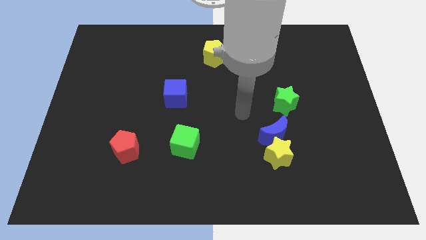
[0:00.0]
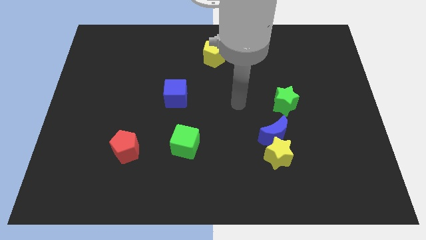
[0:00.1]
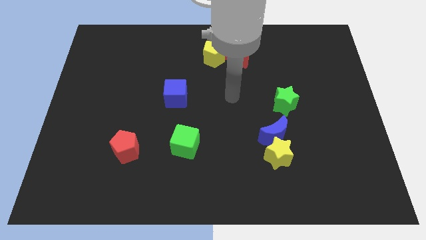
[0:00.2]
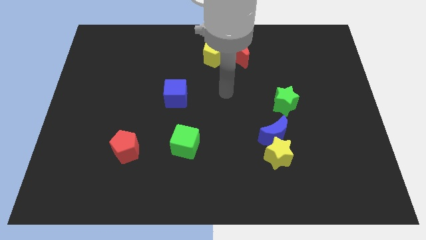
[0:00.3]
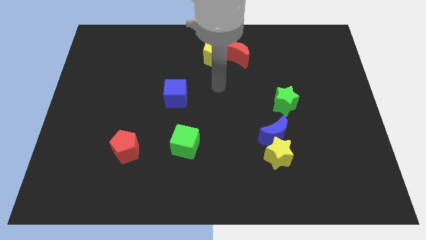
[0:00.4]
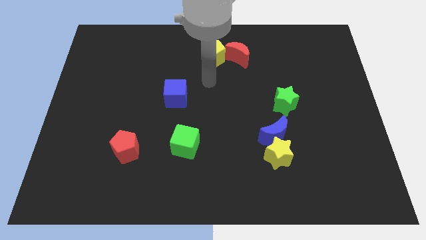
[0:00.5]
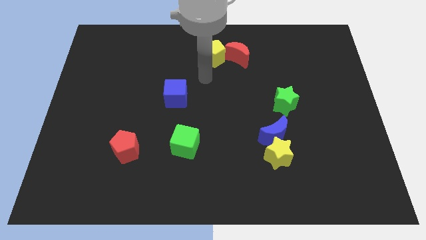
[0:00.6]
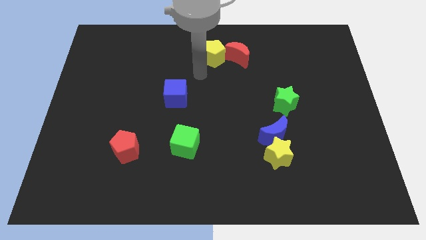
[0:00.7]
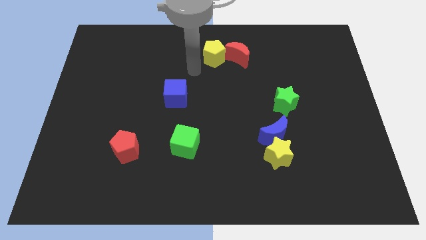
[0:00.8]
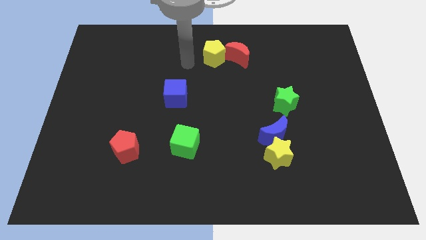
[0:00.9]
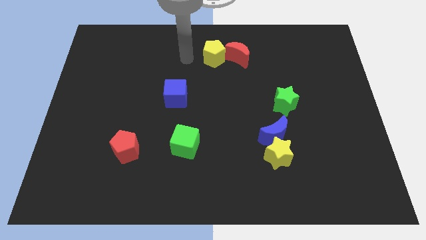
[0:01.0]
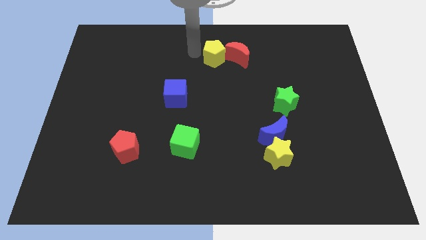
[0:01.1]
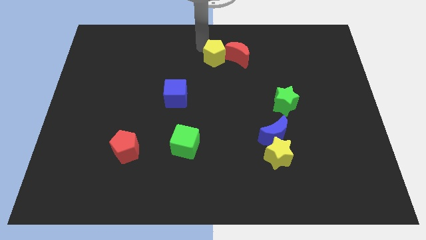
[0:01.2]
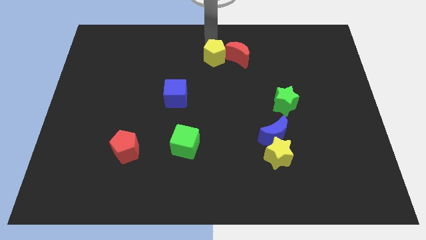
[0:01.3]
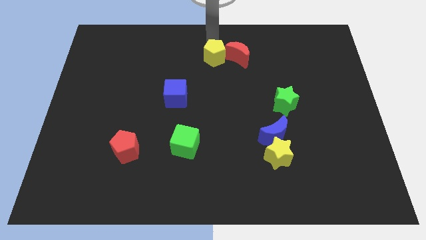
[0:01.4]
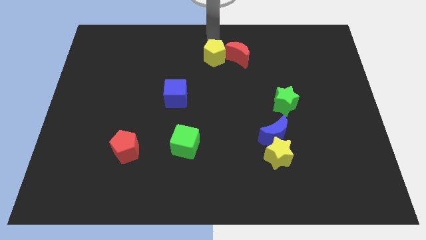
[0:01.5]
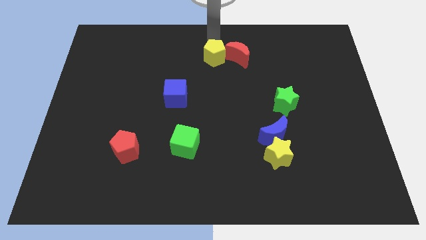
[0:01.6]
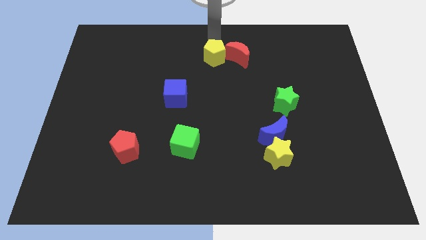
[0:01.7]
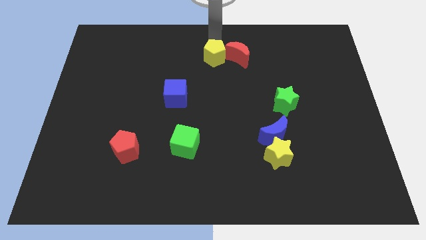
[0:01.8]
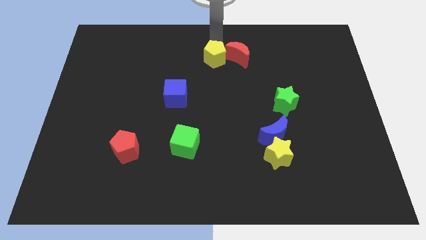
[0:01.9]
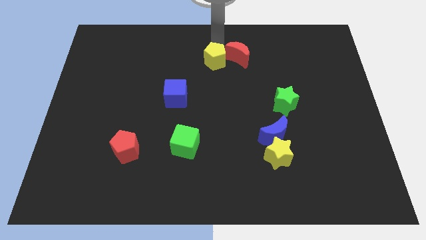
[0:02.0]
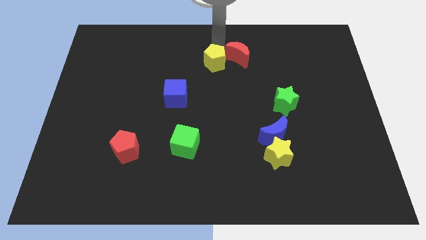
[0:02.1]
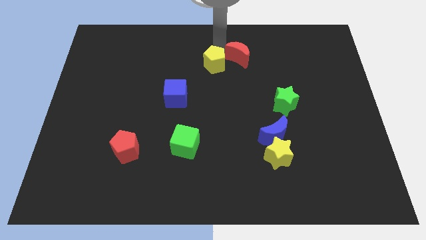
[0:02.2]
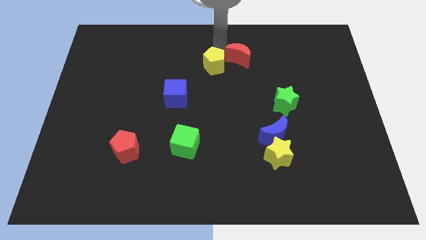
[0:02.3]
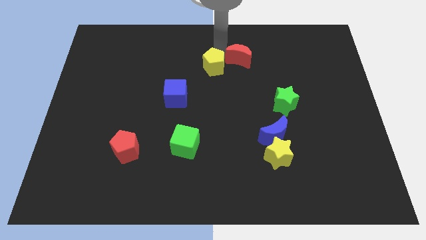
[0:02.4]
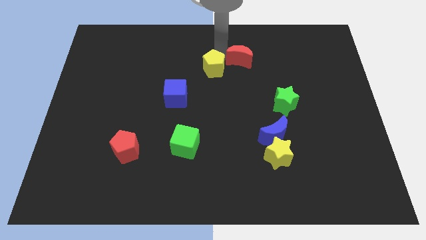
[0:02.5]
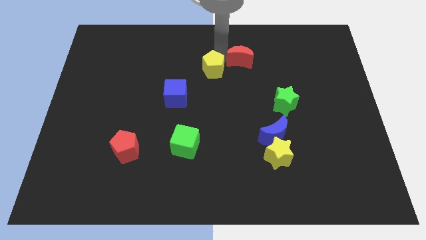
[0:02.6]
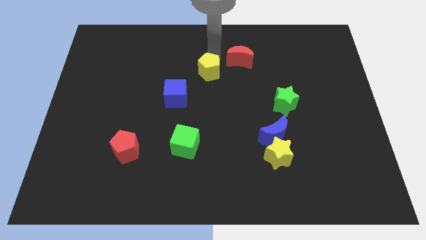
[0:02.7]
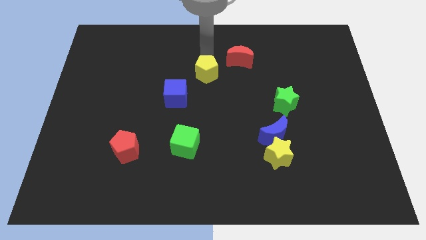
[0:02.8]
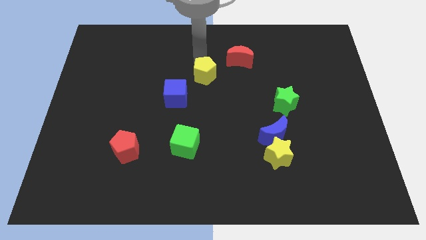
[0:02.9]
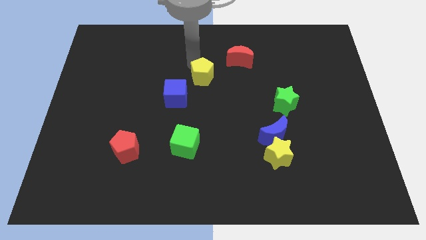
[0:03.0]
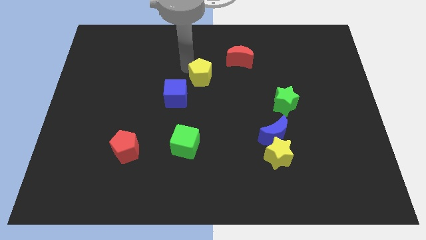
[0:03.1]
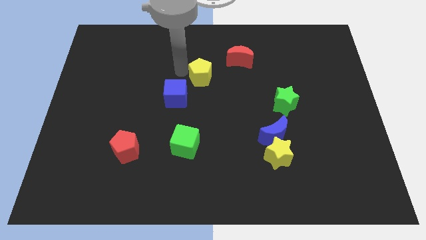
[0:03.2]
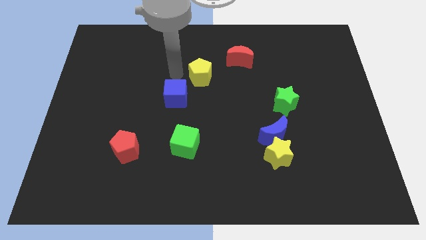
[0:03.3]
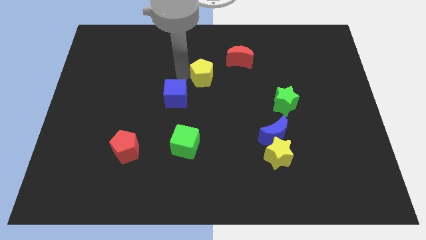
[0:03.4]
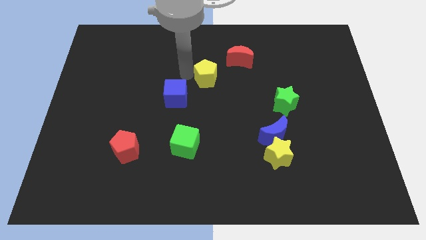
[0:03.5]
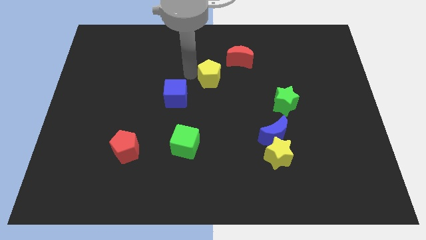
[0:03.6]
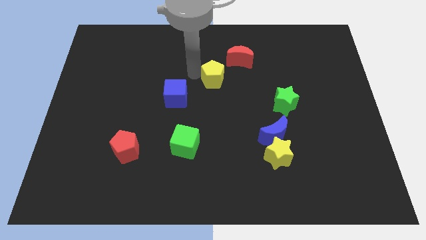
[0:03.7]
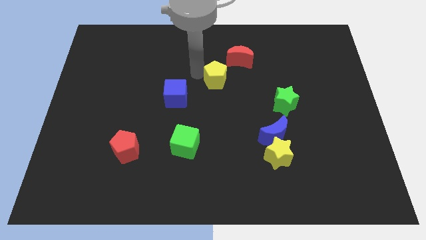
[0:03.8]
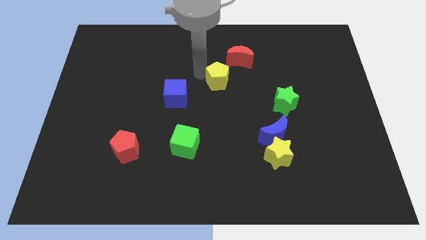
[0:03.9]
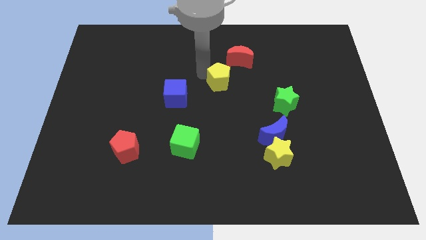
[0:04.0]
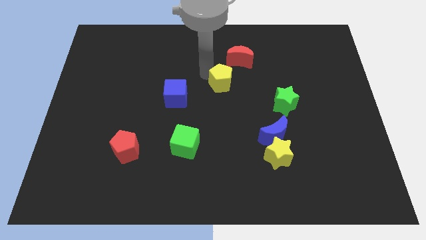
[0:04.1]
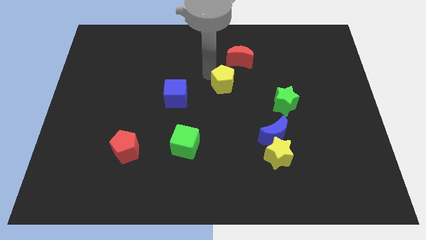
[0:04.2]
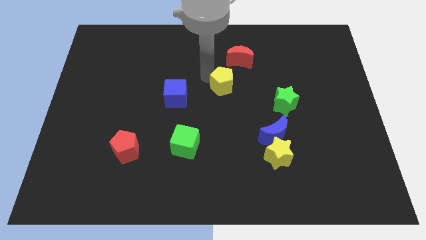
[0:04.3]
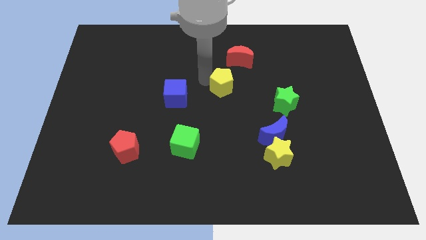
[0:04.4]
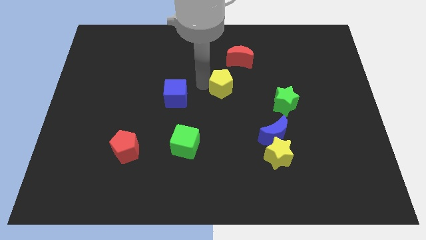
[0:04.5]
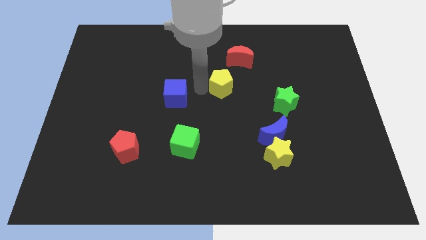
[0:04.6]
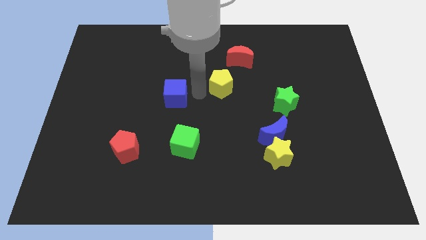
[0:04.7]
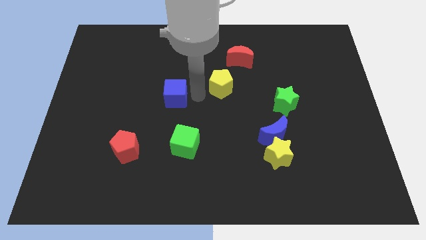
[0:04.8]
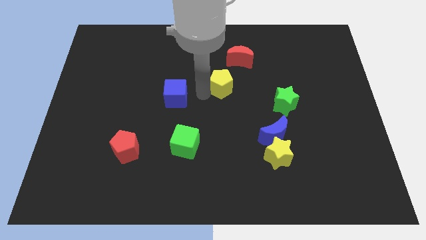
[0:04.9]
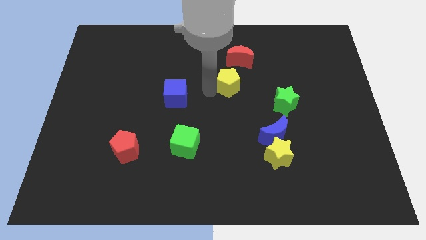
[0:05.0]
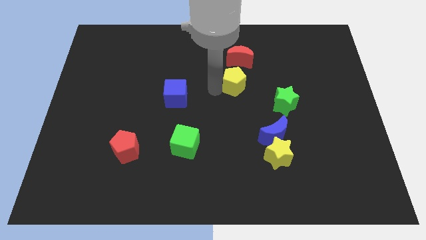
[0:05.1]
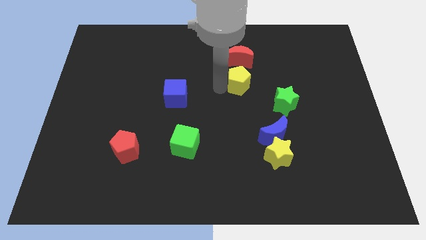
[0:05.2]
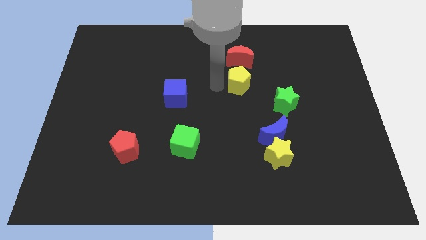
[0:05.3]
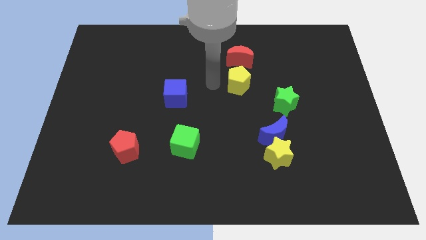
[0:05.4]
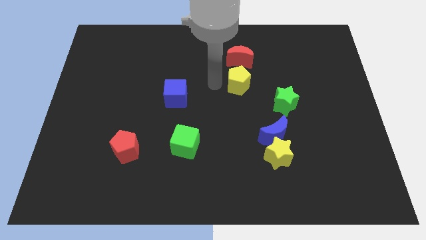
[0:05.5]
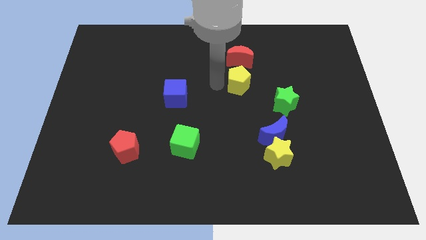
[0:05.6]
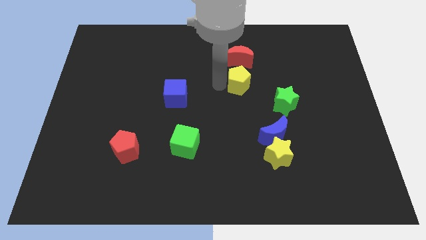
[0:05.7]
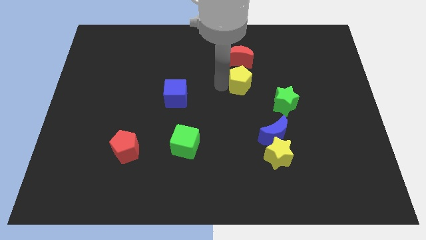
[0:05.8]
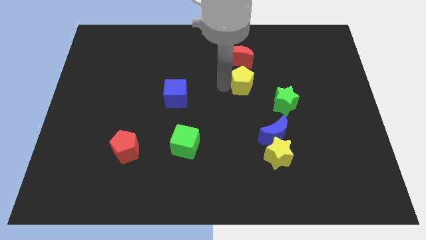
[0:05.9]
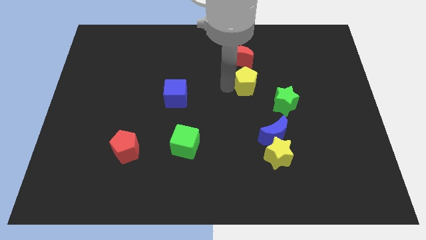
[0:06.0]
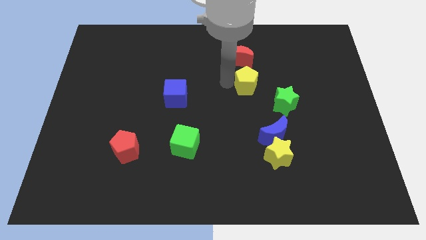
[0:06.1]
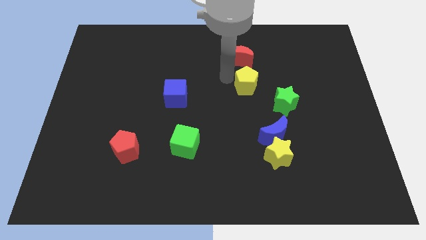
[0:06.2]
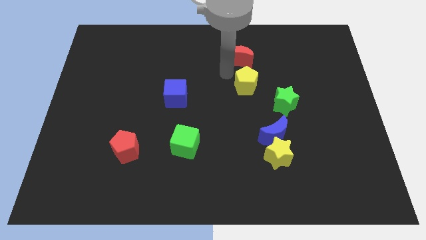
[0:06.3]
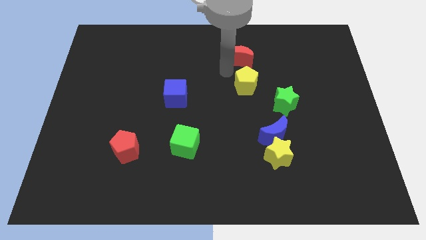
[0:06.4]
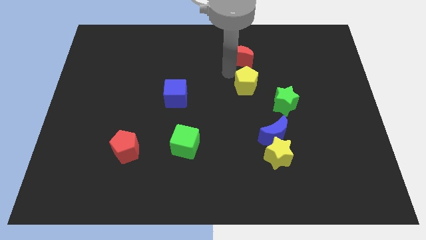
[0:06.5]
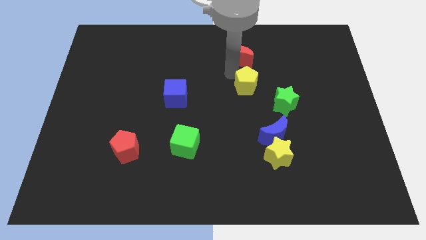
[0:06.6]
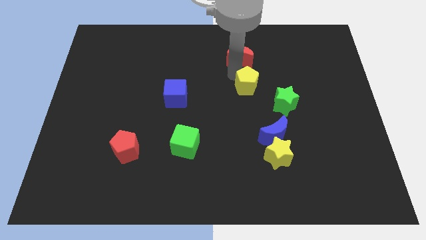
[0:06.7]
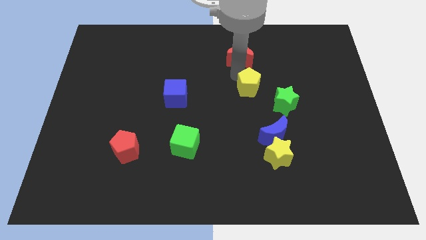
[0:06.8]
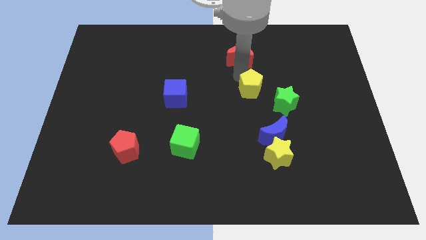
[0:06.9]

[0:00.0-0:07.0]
move the yellow pentagon above the blue moon

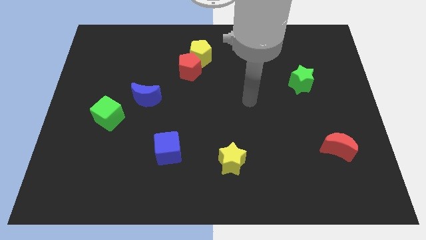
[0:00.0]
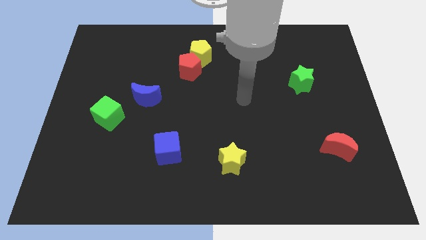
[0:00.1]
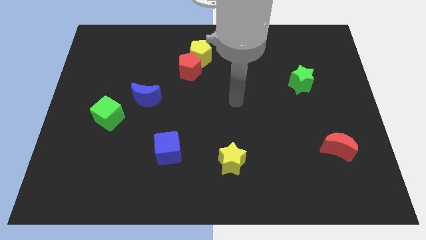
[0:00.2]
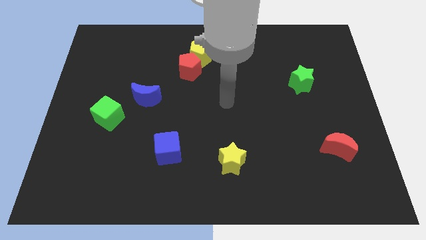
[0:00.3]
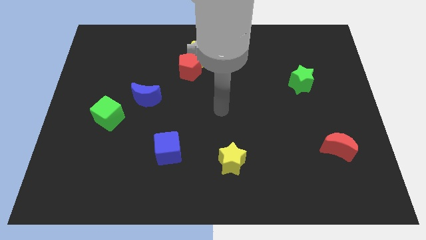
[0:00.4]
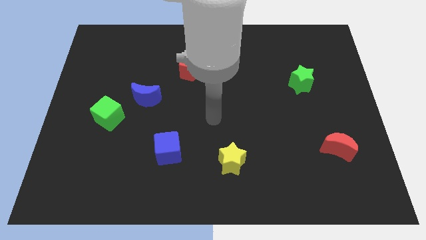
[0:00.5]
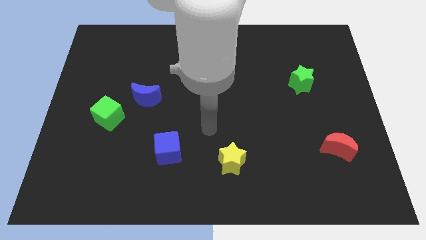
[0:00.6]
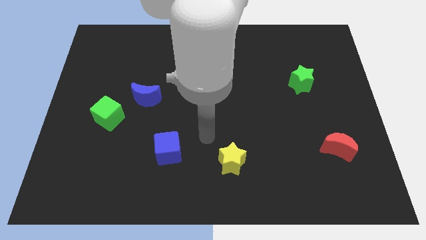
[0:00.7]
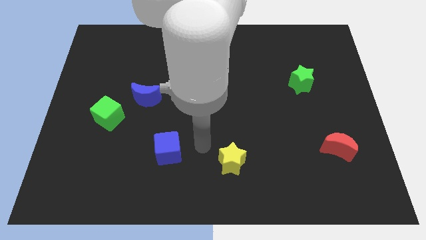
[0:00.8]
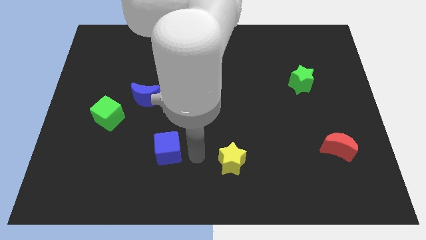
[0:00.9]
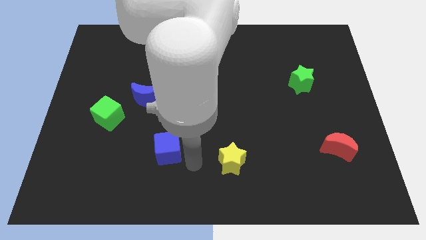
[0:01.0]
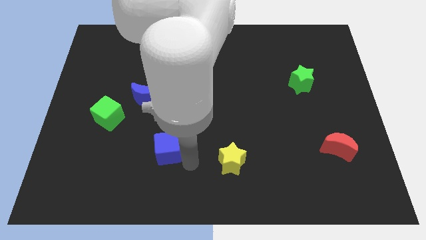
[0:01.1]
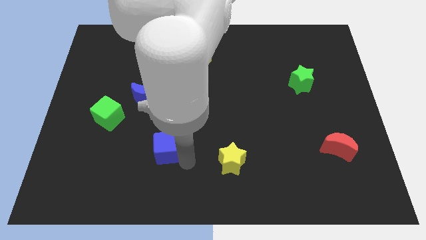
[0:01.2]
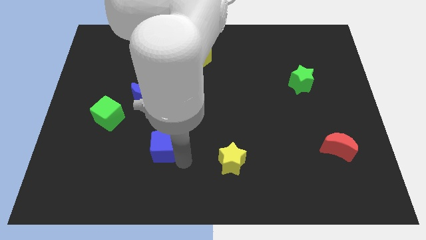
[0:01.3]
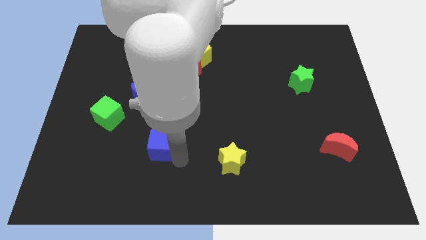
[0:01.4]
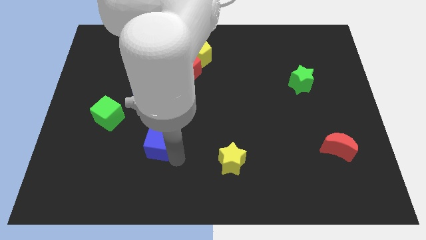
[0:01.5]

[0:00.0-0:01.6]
push the blue cube to the bottom of the blue moon
